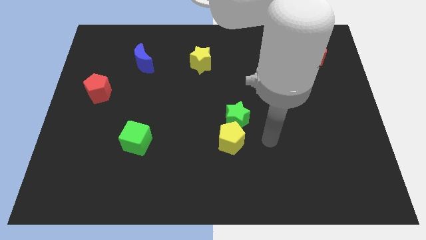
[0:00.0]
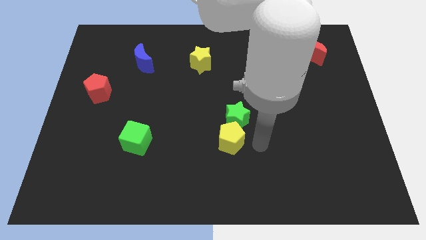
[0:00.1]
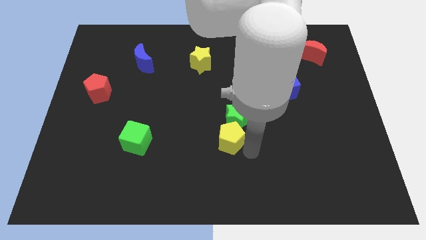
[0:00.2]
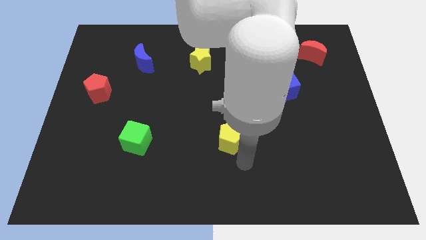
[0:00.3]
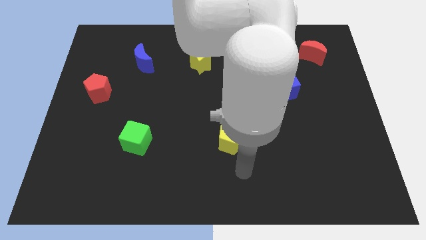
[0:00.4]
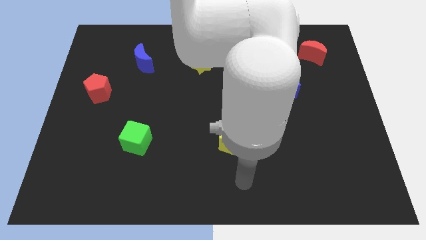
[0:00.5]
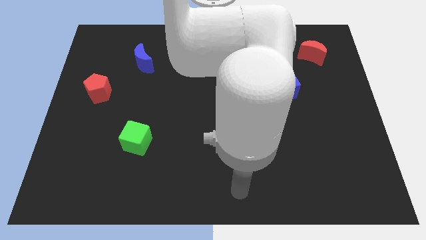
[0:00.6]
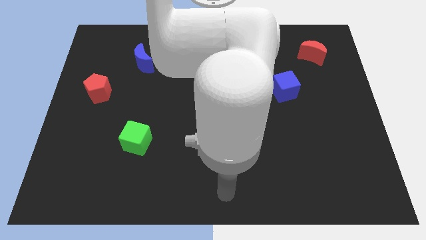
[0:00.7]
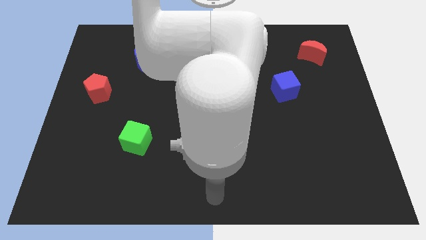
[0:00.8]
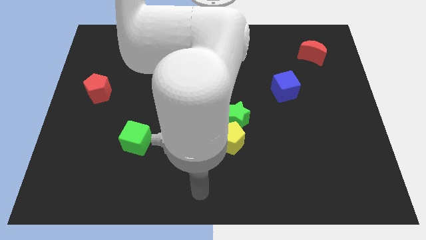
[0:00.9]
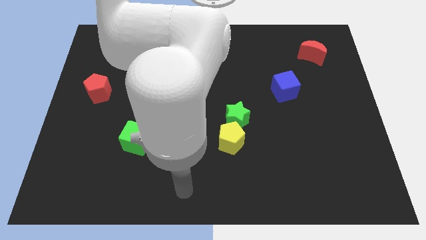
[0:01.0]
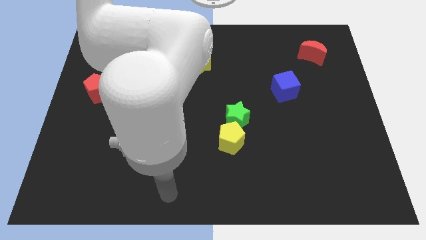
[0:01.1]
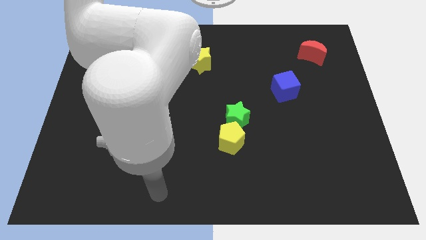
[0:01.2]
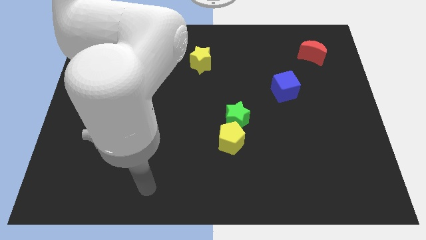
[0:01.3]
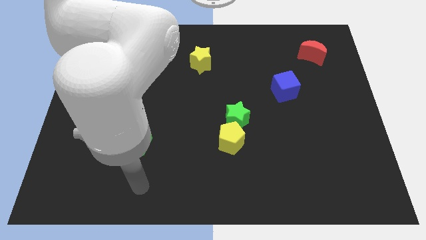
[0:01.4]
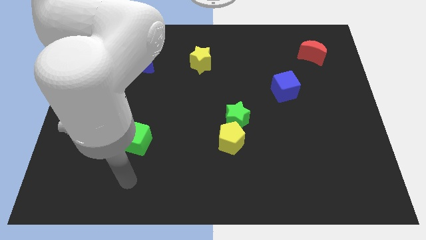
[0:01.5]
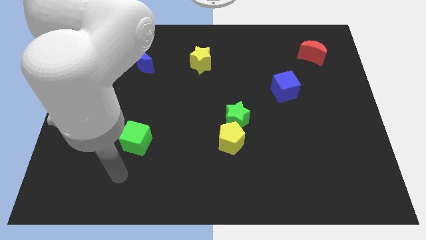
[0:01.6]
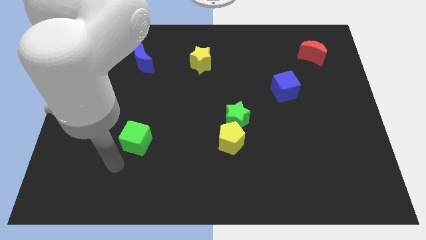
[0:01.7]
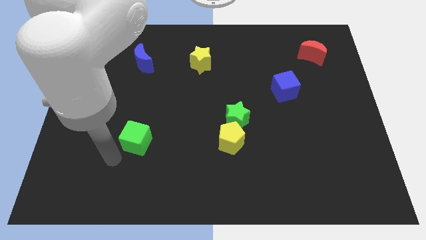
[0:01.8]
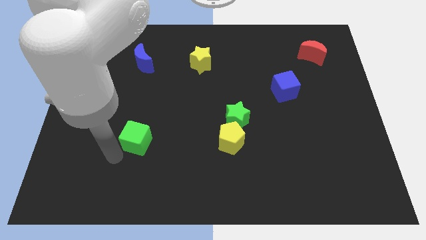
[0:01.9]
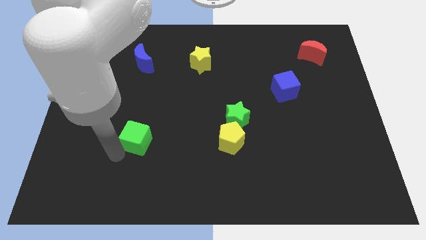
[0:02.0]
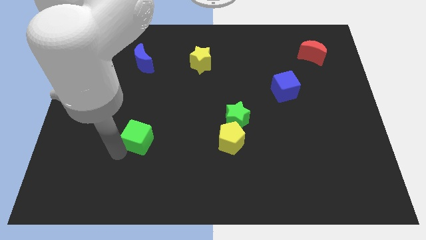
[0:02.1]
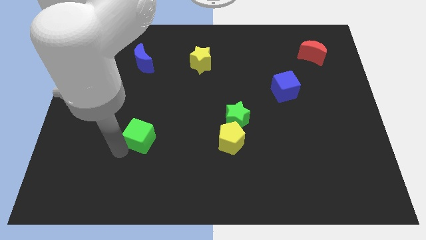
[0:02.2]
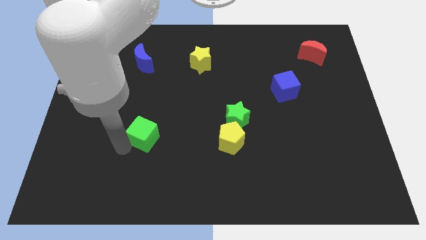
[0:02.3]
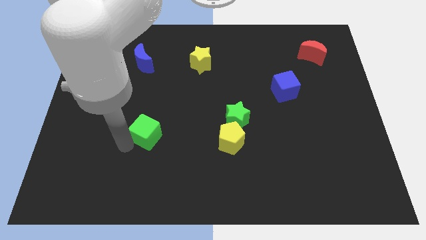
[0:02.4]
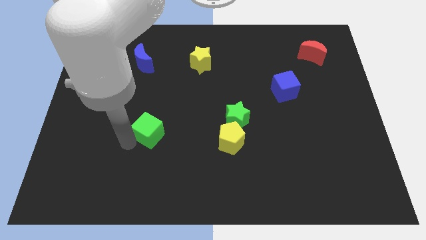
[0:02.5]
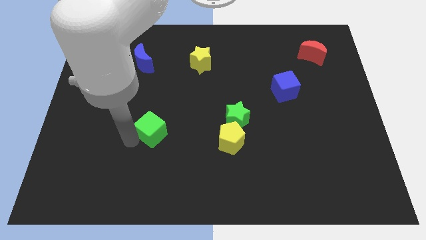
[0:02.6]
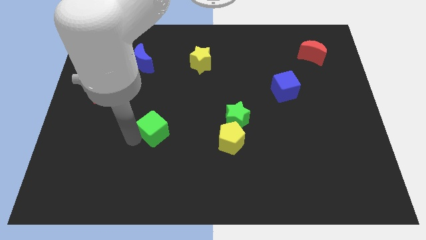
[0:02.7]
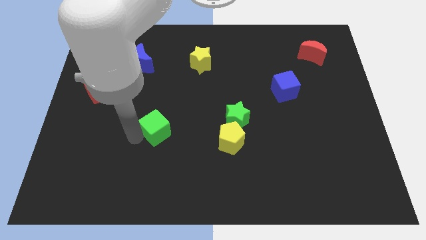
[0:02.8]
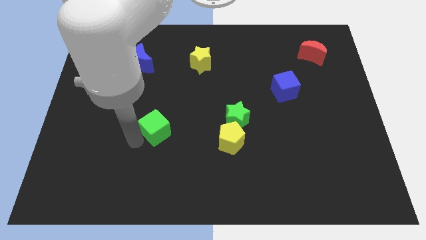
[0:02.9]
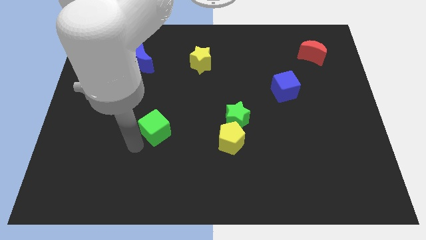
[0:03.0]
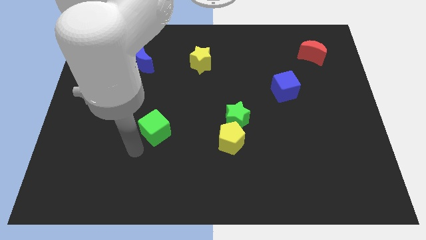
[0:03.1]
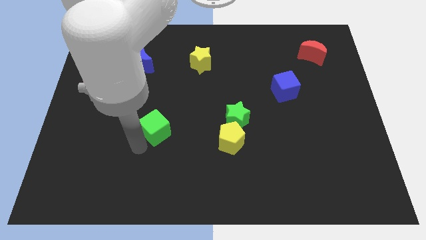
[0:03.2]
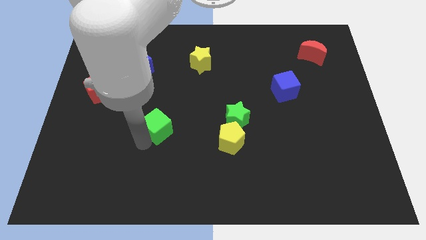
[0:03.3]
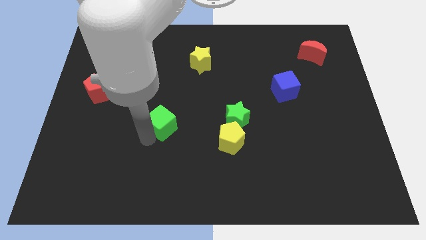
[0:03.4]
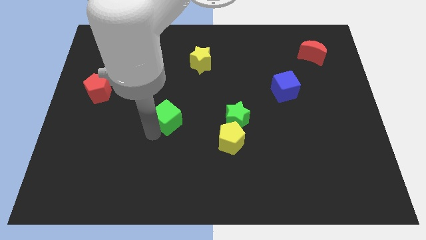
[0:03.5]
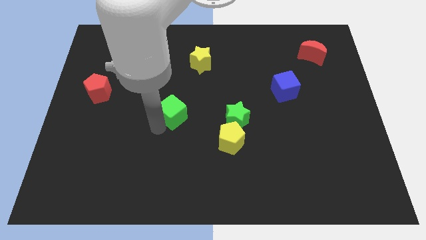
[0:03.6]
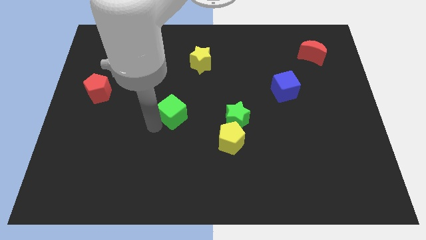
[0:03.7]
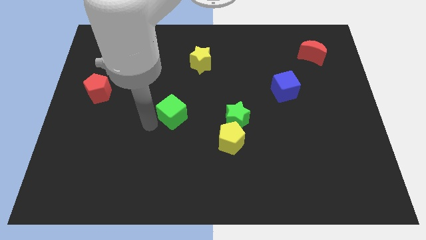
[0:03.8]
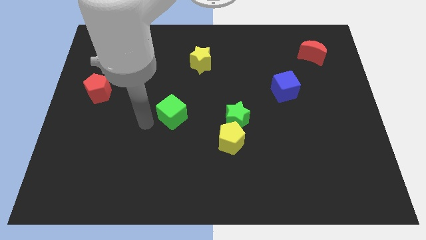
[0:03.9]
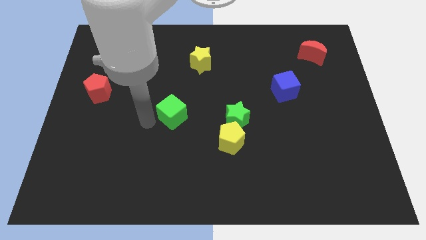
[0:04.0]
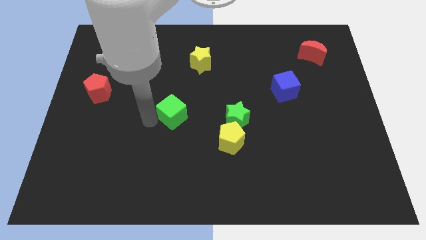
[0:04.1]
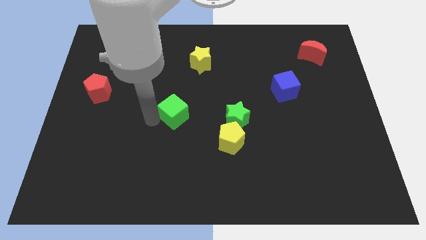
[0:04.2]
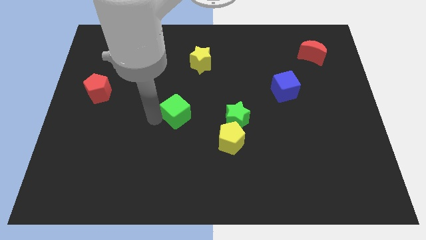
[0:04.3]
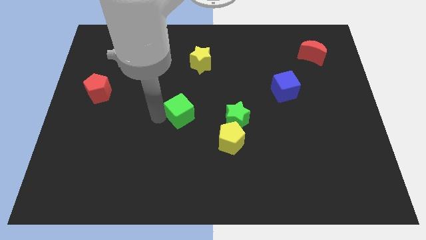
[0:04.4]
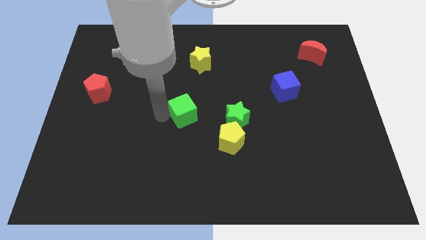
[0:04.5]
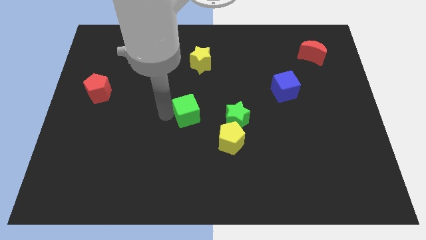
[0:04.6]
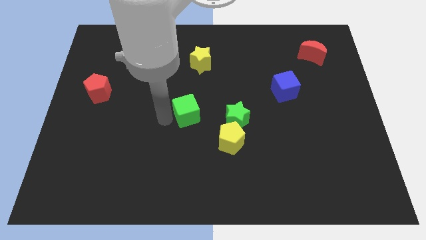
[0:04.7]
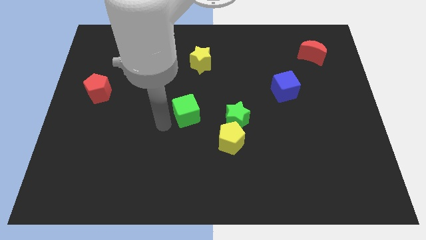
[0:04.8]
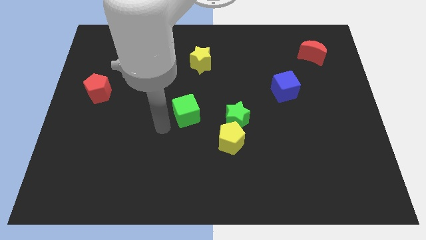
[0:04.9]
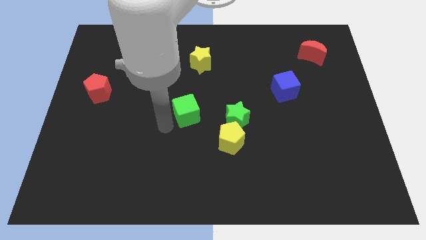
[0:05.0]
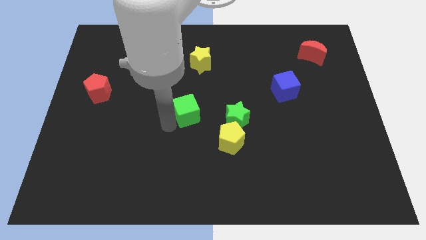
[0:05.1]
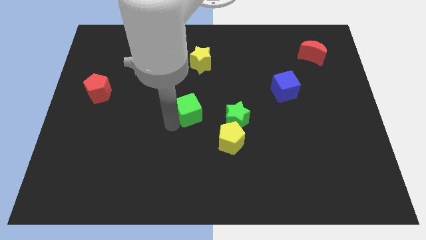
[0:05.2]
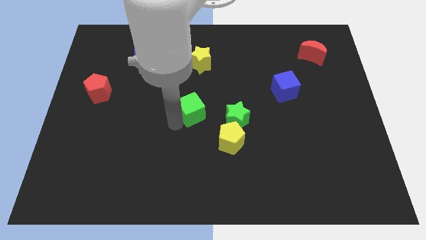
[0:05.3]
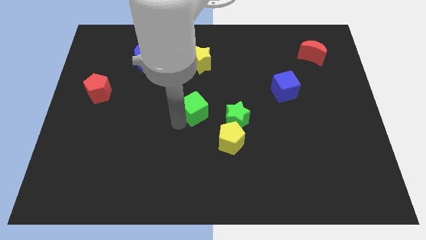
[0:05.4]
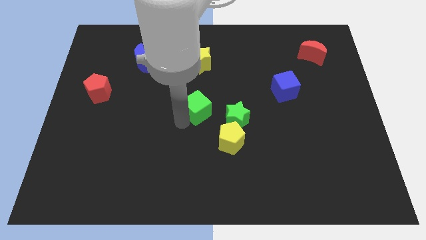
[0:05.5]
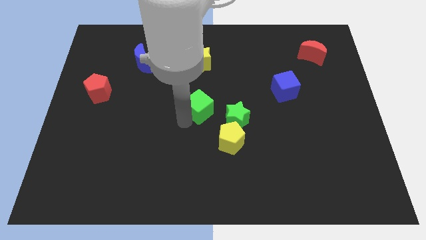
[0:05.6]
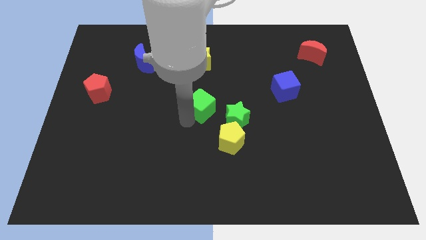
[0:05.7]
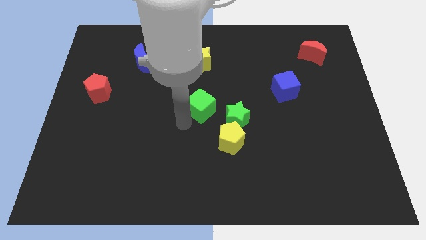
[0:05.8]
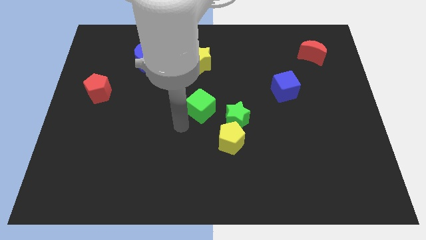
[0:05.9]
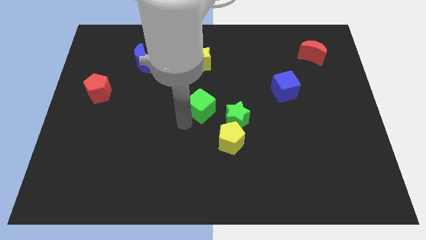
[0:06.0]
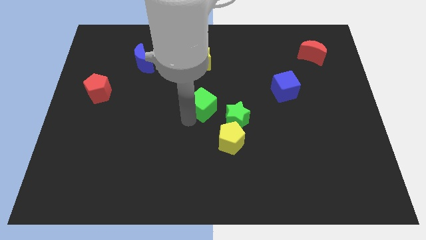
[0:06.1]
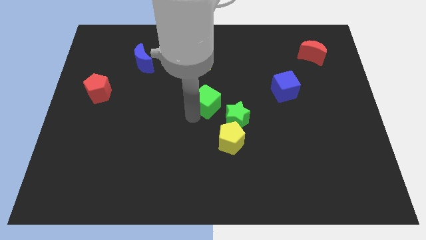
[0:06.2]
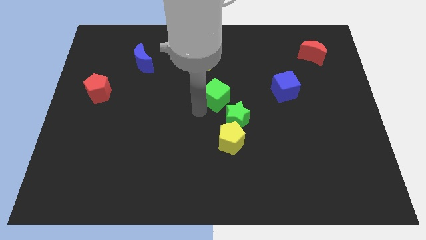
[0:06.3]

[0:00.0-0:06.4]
put the green cube to the top side of the green star

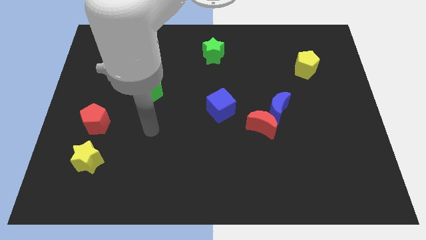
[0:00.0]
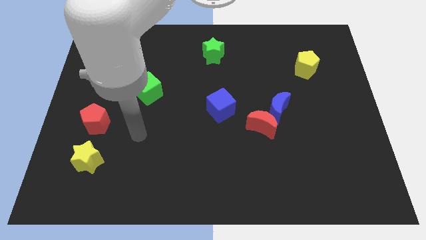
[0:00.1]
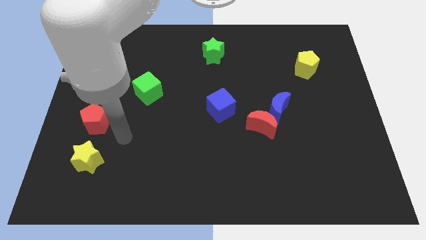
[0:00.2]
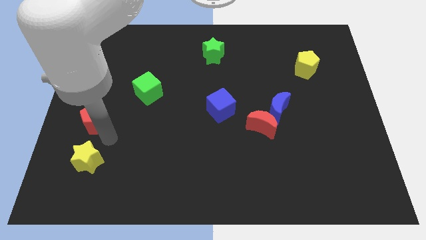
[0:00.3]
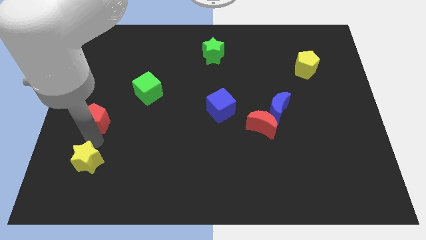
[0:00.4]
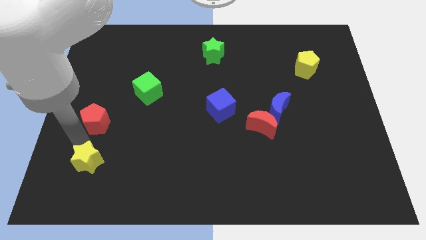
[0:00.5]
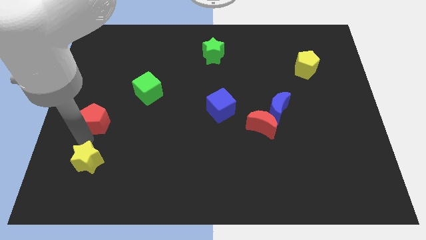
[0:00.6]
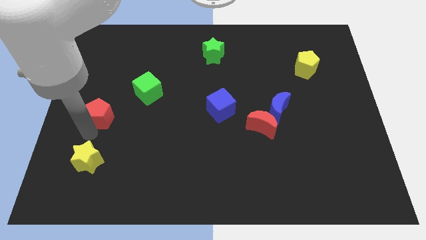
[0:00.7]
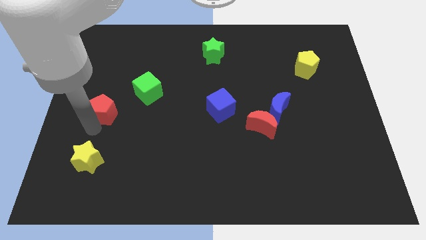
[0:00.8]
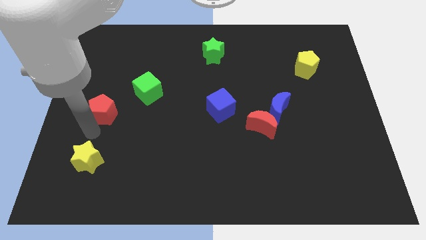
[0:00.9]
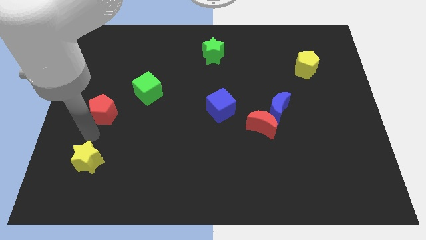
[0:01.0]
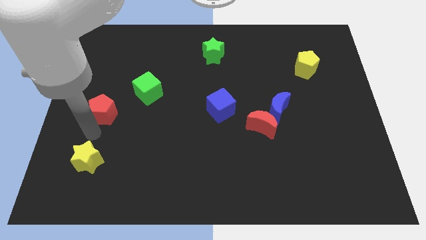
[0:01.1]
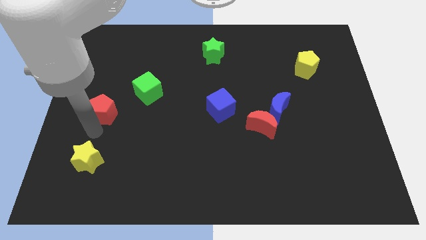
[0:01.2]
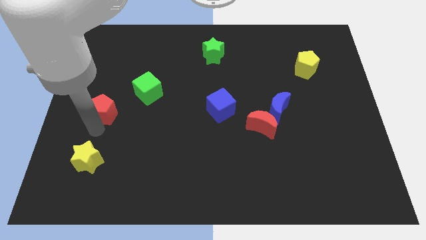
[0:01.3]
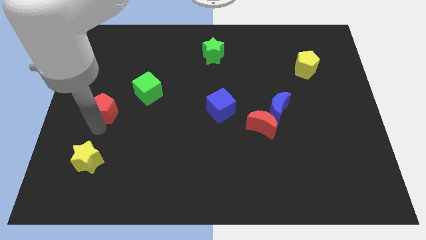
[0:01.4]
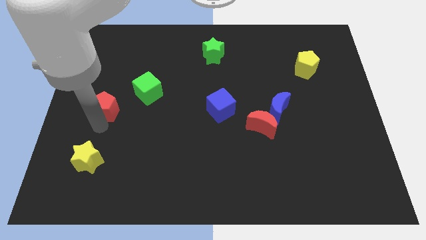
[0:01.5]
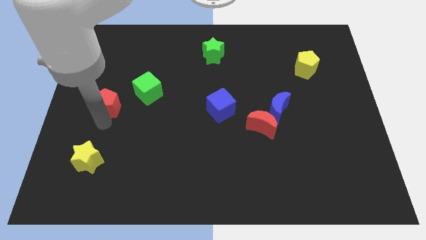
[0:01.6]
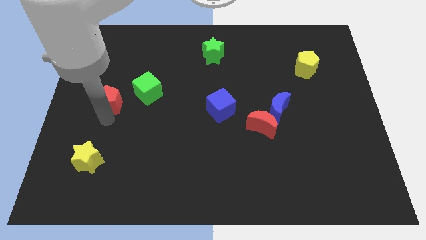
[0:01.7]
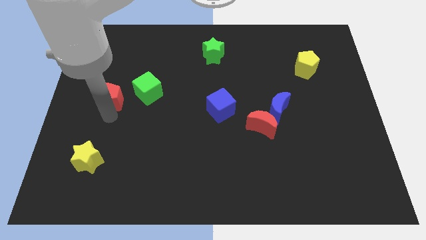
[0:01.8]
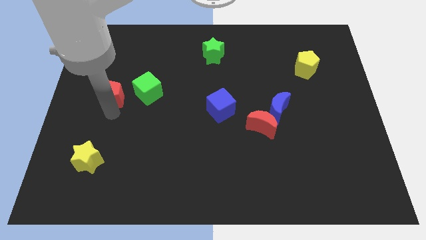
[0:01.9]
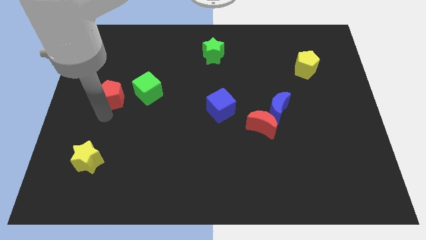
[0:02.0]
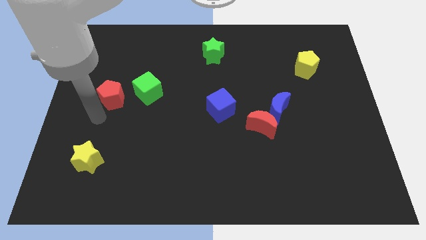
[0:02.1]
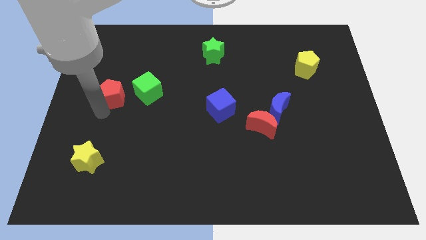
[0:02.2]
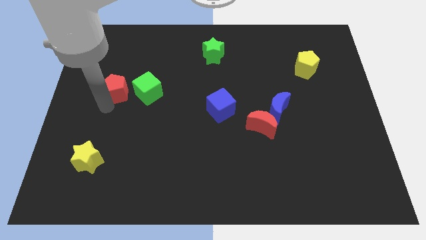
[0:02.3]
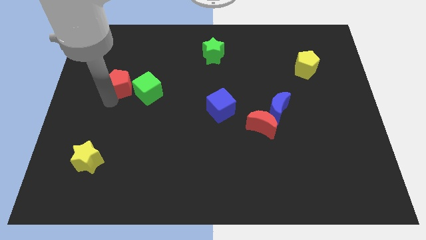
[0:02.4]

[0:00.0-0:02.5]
move the red pentagon diagonally up and to the left of the green cube
